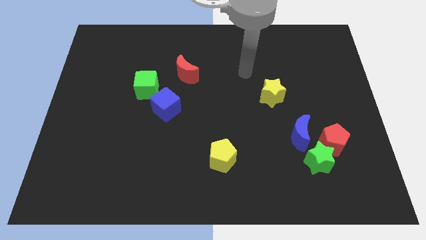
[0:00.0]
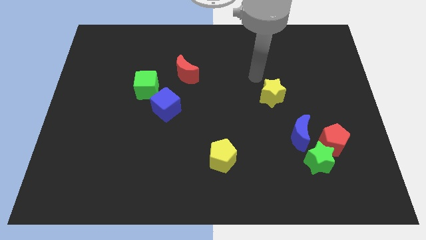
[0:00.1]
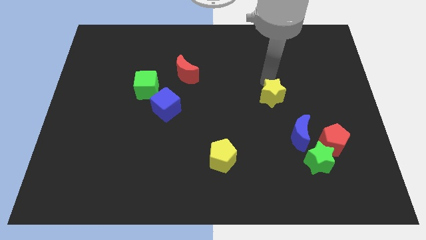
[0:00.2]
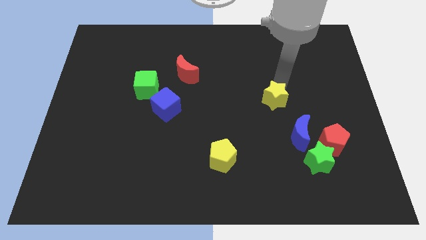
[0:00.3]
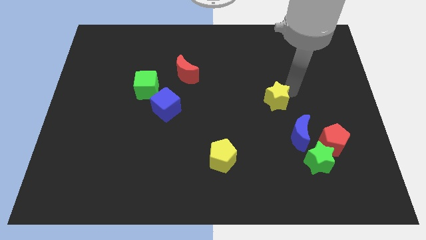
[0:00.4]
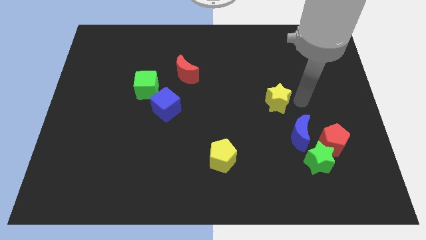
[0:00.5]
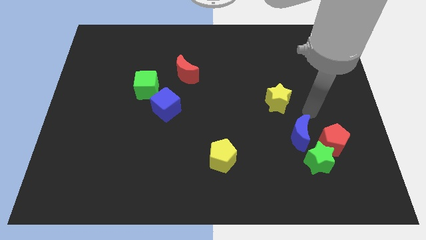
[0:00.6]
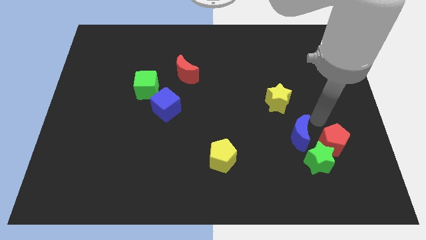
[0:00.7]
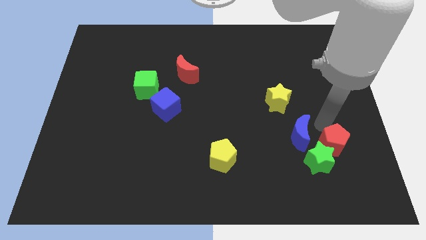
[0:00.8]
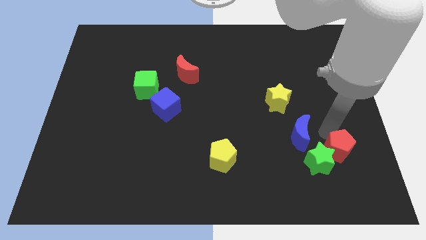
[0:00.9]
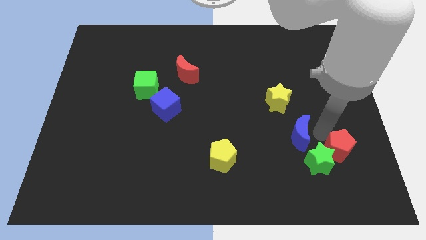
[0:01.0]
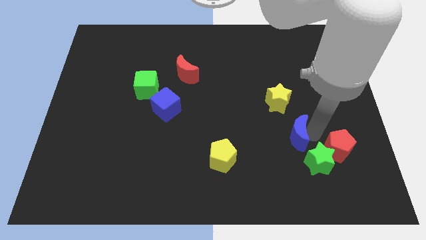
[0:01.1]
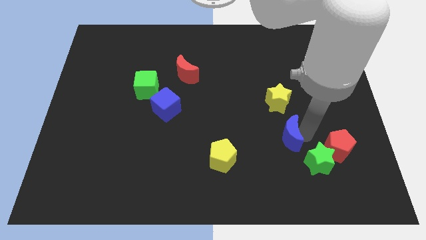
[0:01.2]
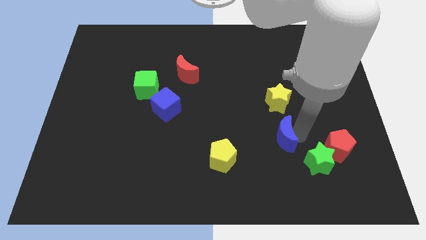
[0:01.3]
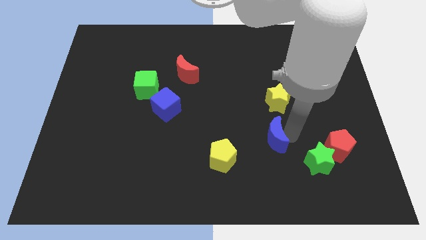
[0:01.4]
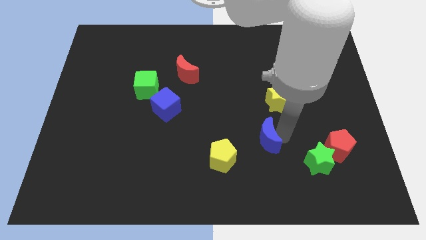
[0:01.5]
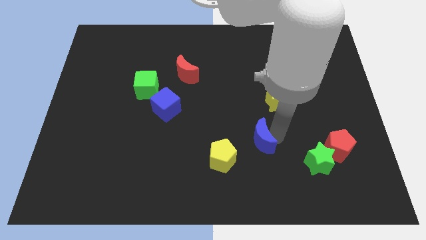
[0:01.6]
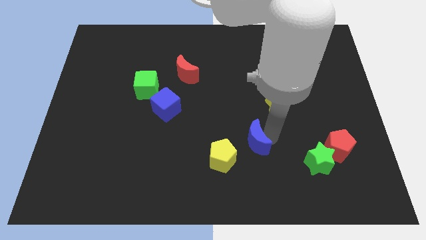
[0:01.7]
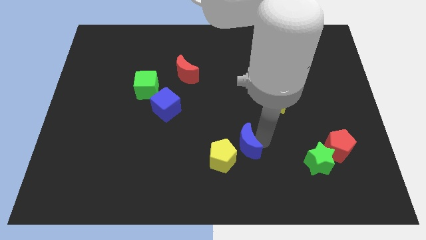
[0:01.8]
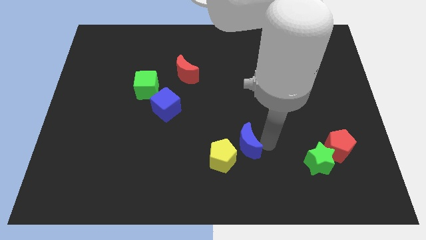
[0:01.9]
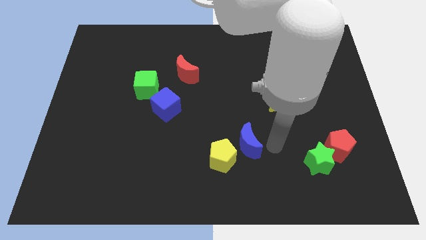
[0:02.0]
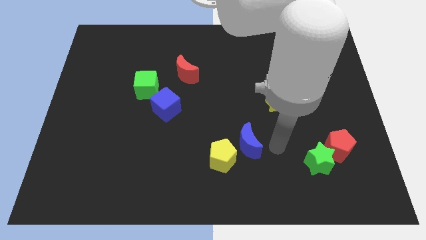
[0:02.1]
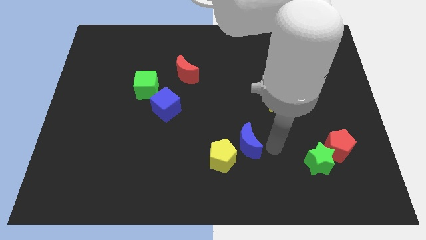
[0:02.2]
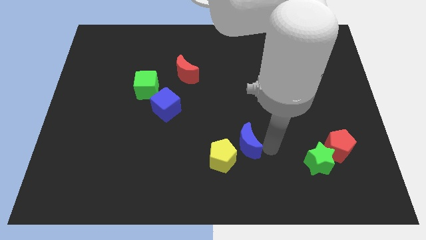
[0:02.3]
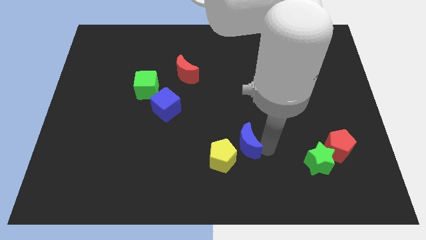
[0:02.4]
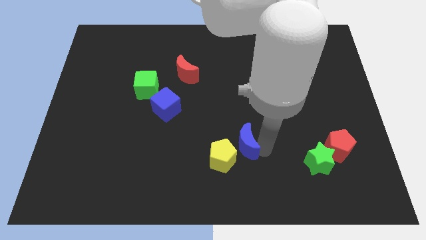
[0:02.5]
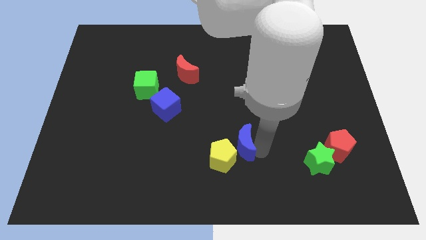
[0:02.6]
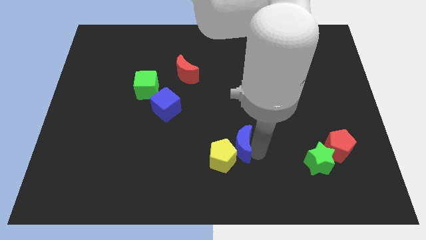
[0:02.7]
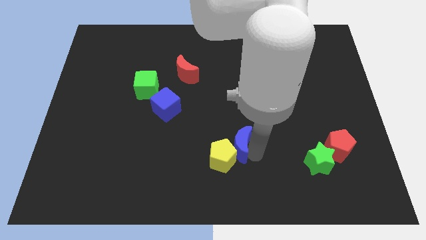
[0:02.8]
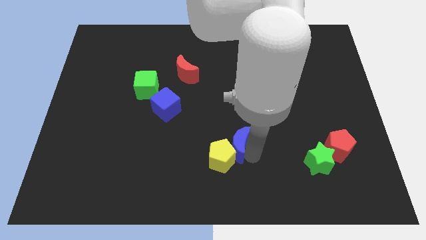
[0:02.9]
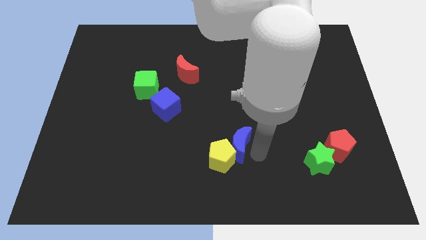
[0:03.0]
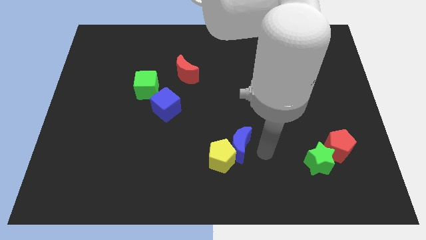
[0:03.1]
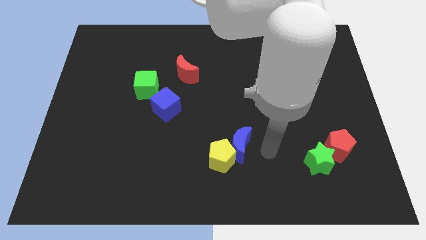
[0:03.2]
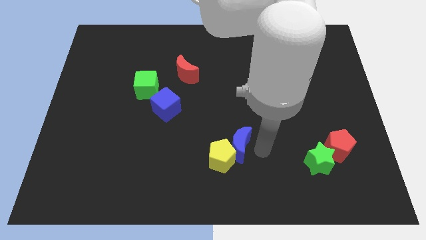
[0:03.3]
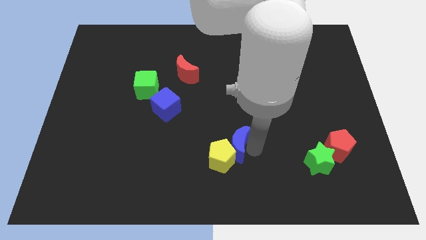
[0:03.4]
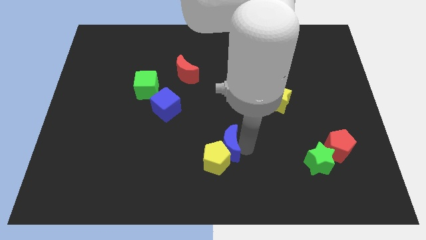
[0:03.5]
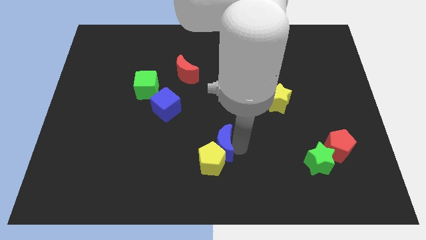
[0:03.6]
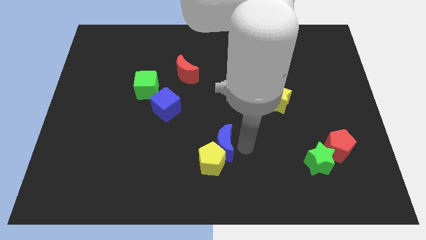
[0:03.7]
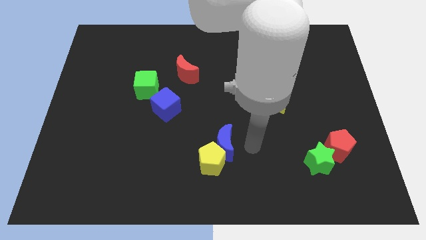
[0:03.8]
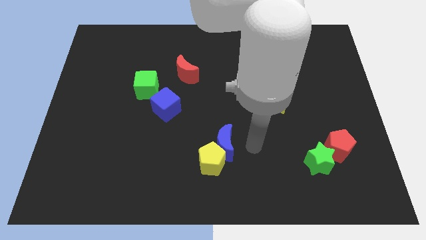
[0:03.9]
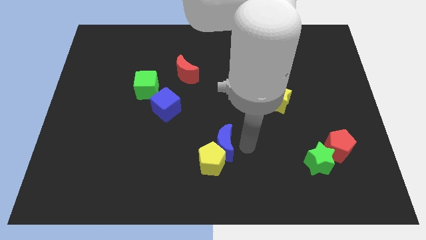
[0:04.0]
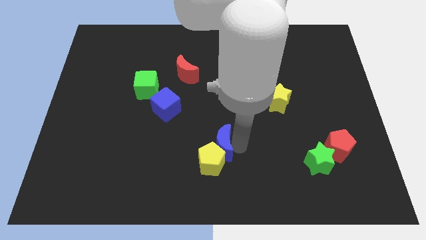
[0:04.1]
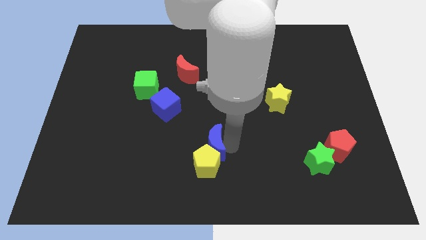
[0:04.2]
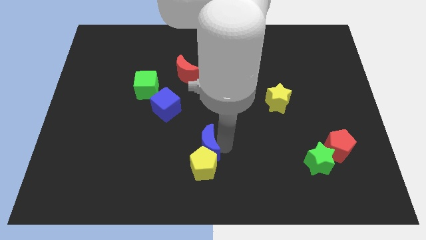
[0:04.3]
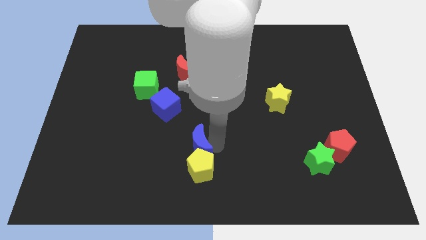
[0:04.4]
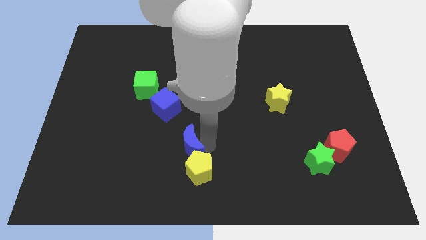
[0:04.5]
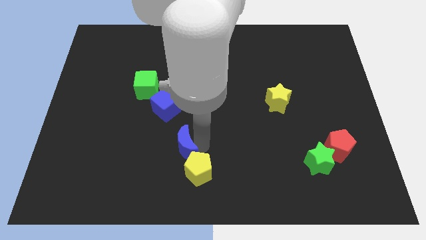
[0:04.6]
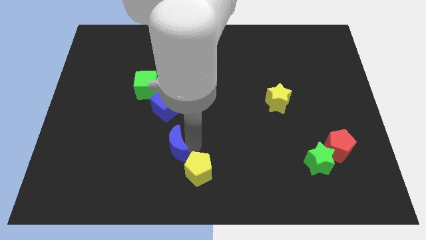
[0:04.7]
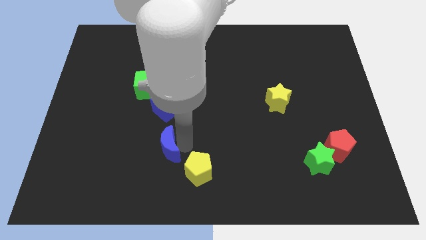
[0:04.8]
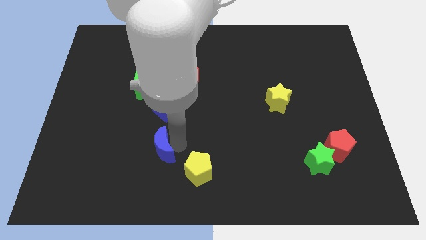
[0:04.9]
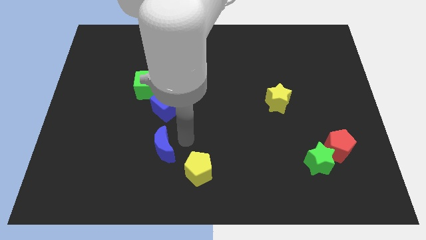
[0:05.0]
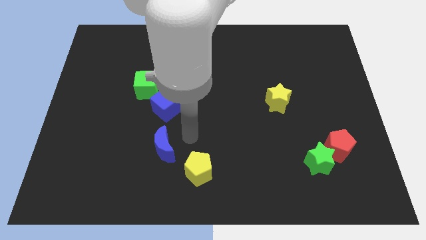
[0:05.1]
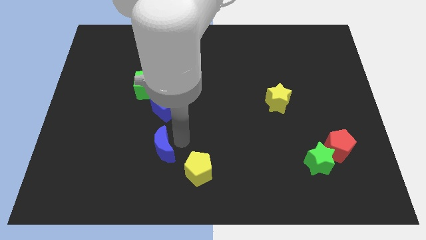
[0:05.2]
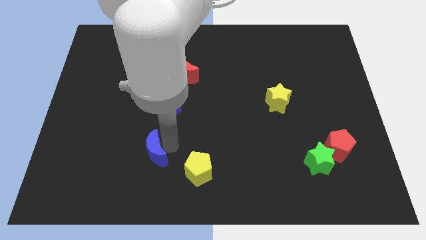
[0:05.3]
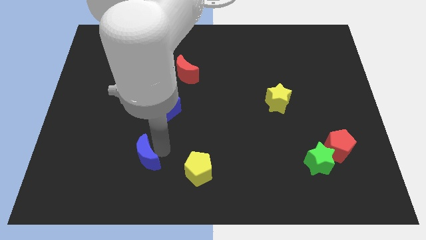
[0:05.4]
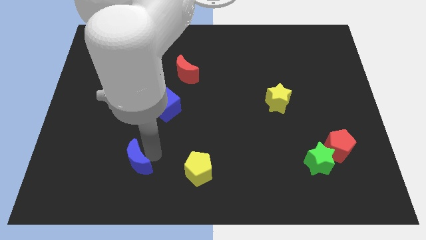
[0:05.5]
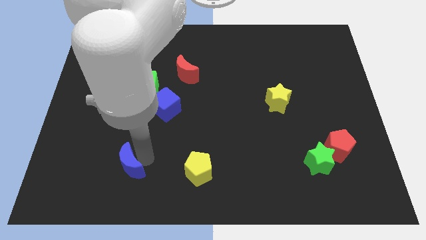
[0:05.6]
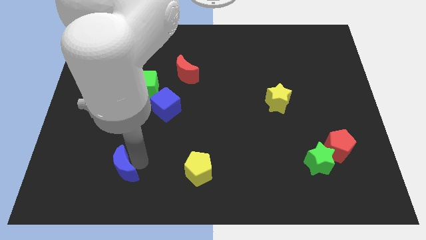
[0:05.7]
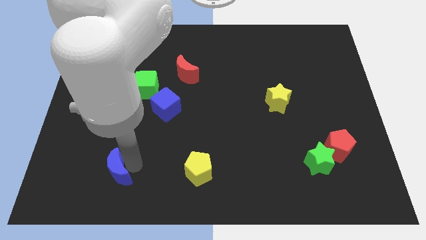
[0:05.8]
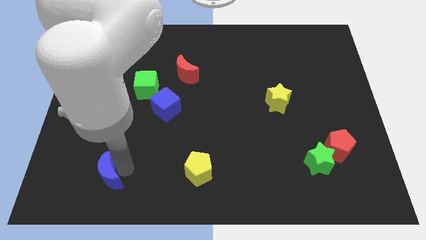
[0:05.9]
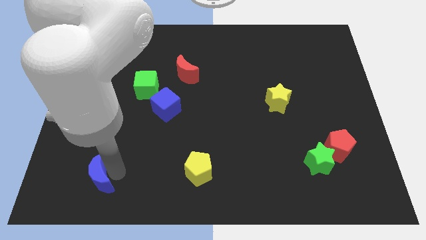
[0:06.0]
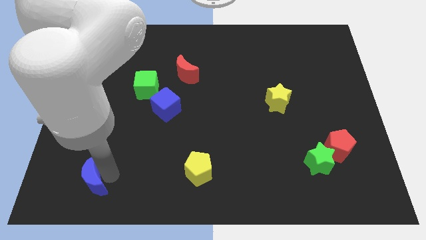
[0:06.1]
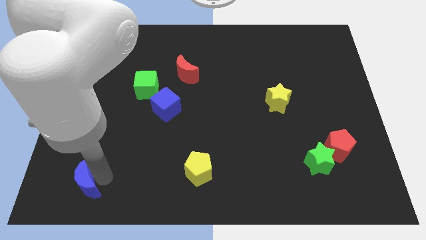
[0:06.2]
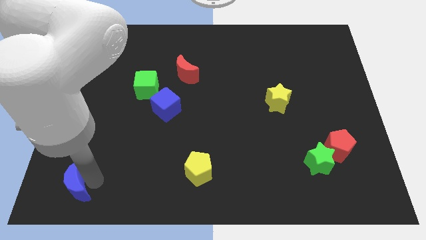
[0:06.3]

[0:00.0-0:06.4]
put the blue moon to the bottom left of the board
